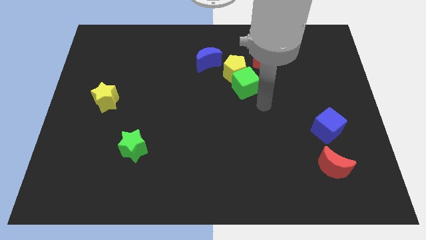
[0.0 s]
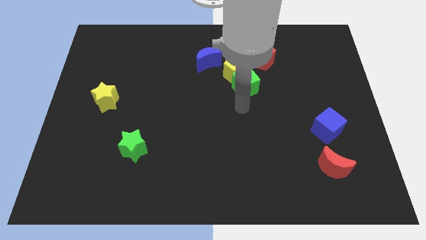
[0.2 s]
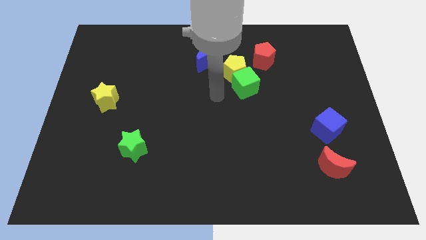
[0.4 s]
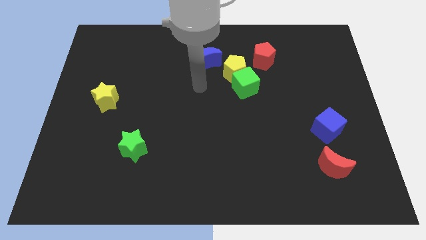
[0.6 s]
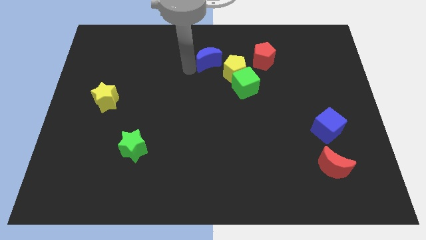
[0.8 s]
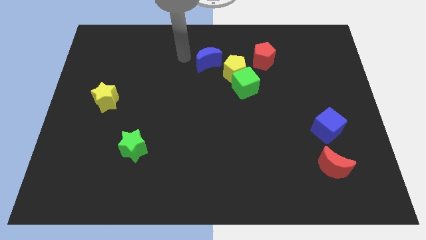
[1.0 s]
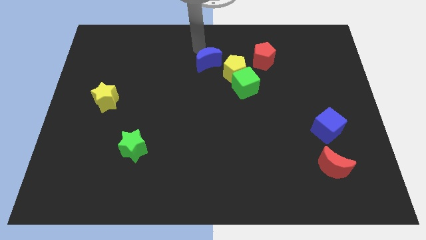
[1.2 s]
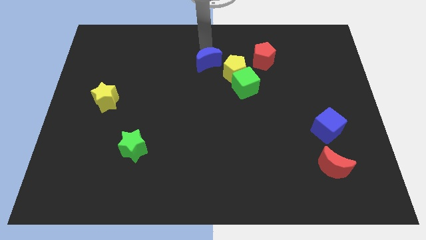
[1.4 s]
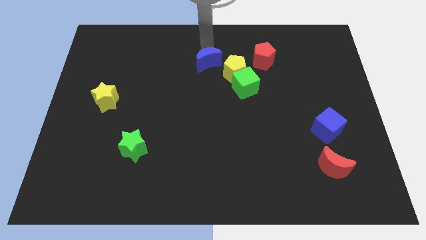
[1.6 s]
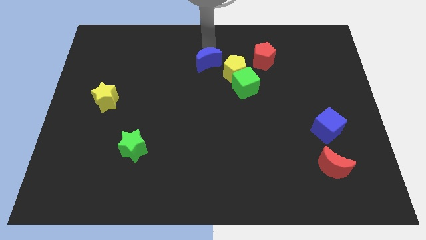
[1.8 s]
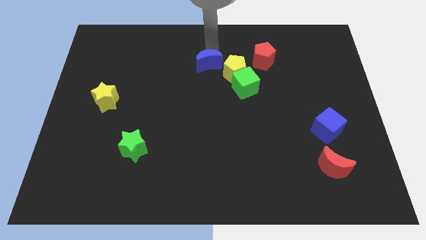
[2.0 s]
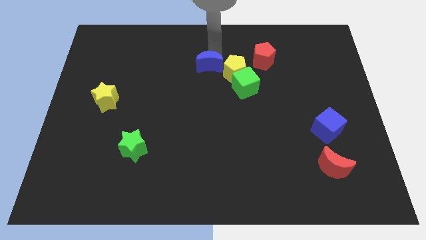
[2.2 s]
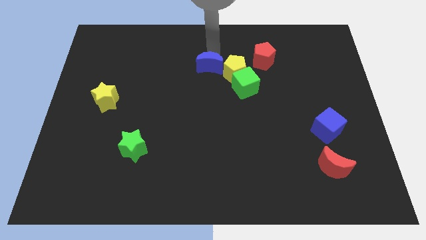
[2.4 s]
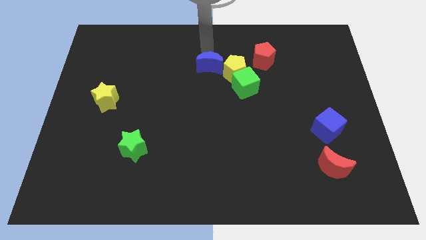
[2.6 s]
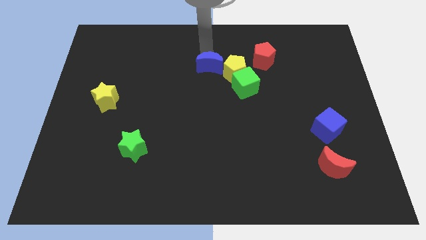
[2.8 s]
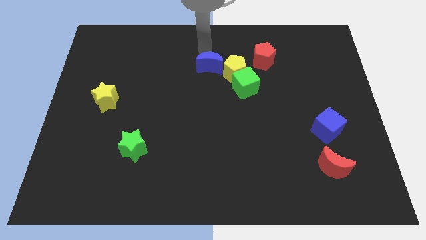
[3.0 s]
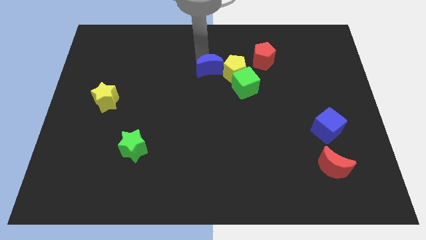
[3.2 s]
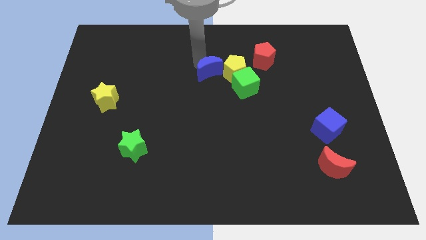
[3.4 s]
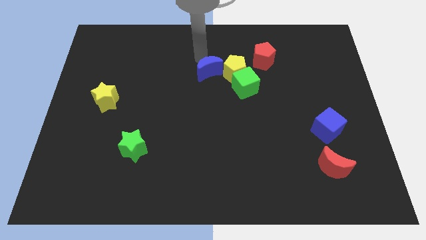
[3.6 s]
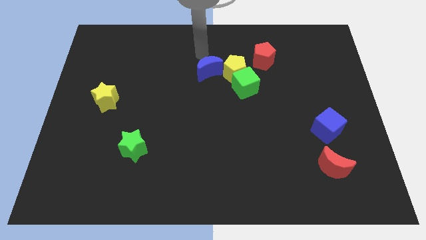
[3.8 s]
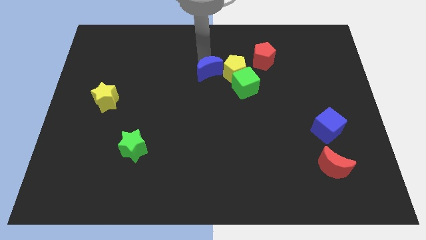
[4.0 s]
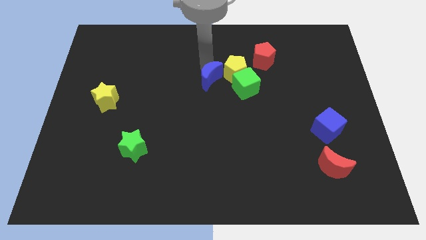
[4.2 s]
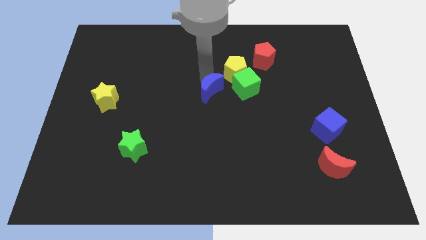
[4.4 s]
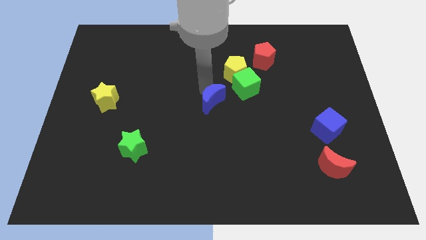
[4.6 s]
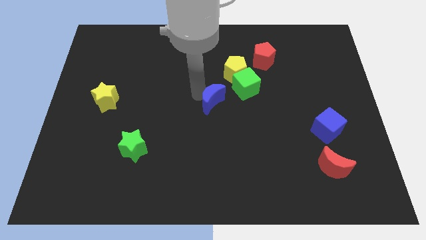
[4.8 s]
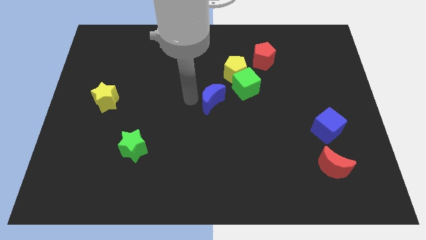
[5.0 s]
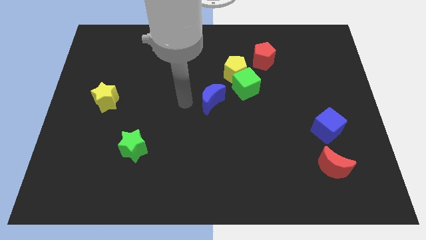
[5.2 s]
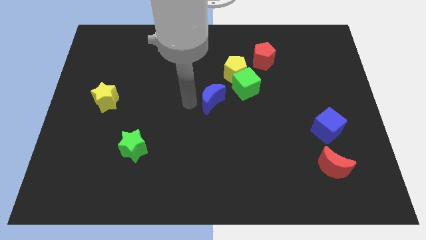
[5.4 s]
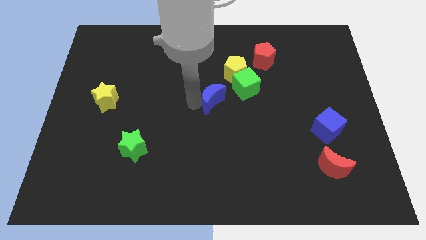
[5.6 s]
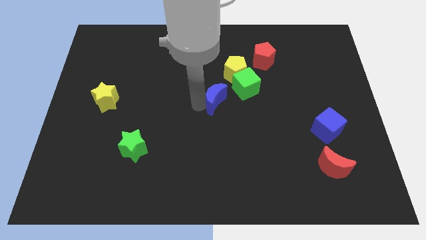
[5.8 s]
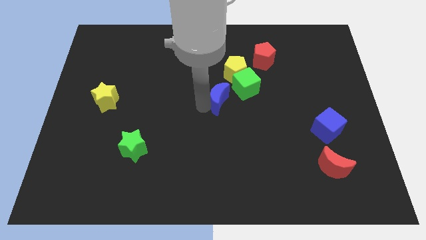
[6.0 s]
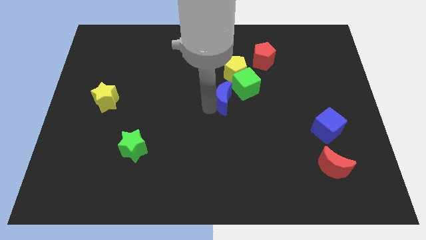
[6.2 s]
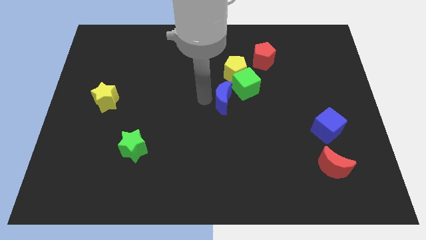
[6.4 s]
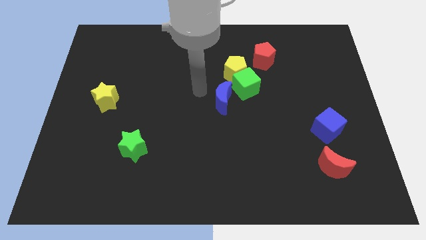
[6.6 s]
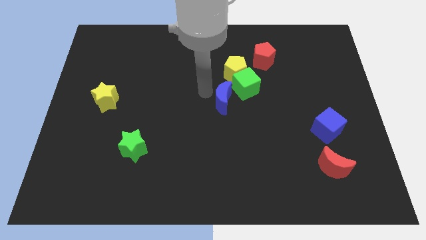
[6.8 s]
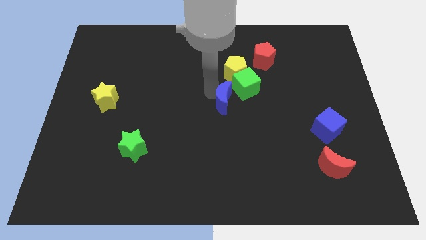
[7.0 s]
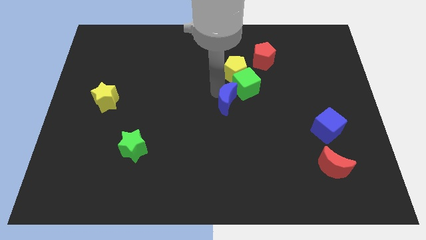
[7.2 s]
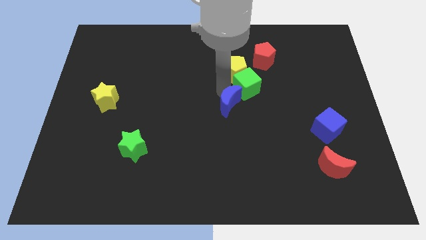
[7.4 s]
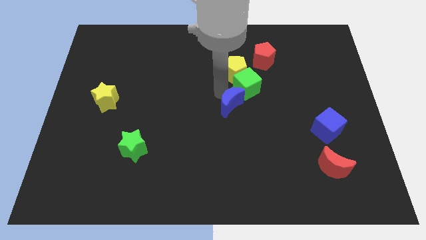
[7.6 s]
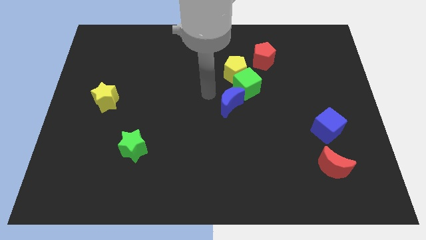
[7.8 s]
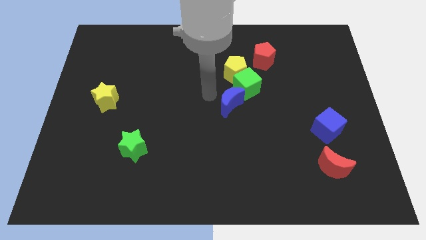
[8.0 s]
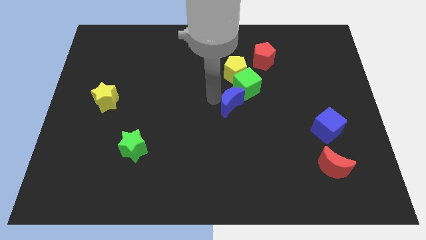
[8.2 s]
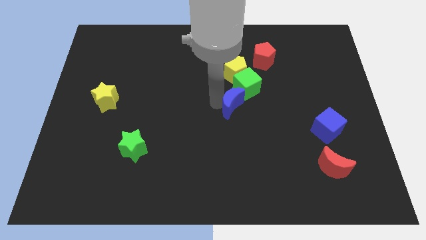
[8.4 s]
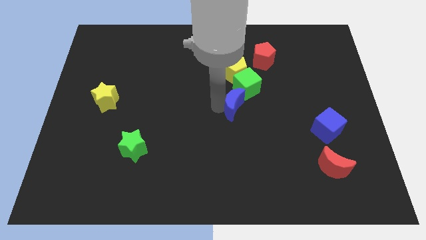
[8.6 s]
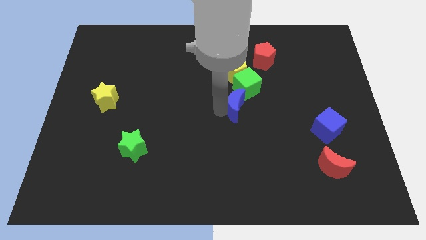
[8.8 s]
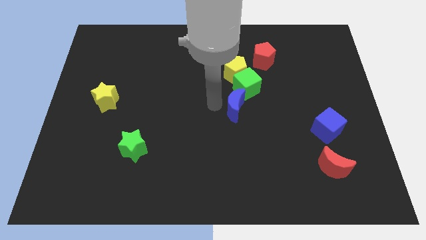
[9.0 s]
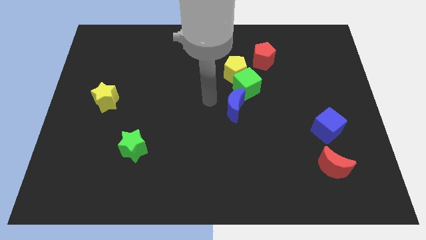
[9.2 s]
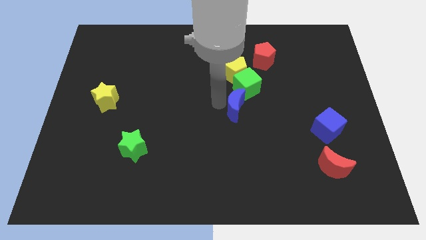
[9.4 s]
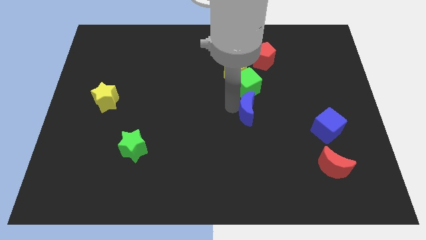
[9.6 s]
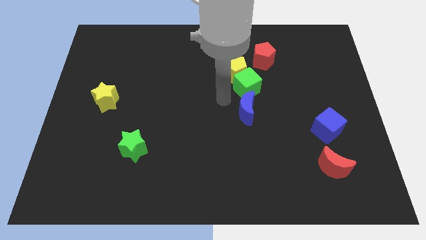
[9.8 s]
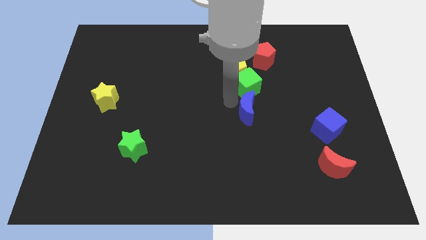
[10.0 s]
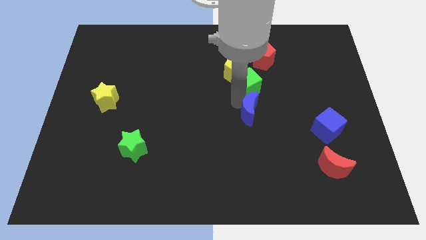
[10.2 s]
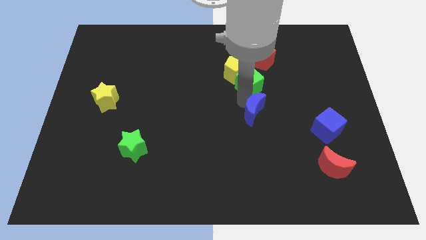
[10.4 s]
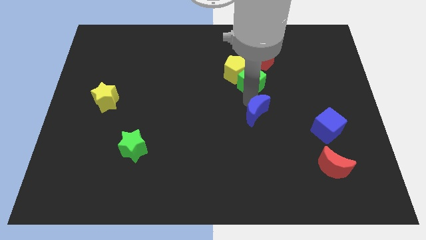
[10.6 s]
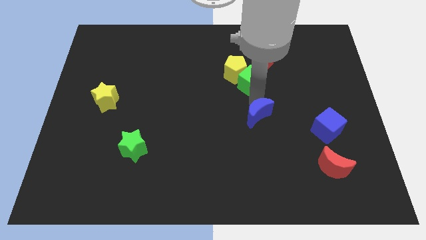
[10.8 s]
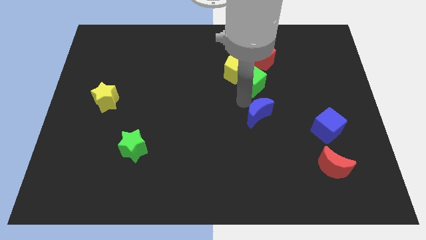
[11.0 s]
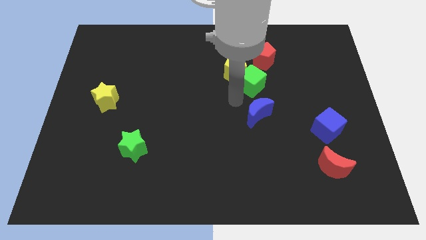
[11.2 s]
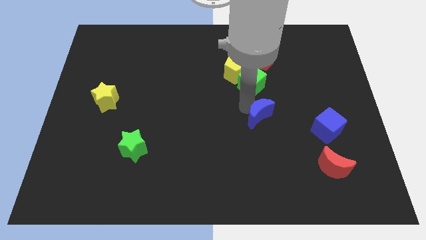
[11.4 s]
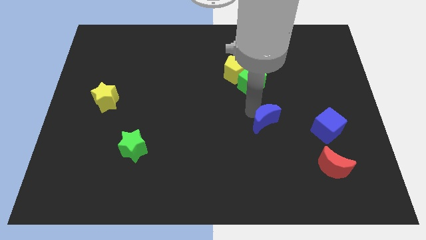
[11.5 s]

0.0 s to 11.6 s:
put the blue moon to the left side of the blue cube

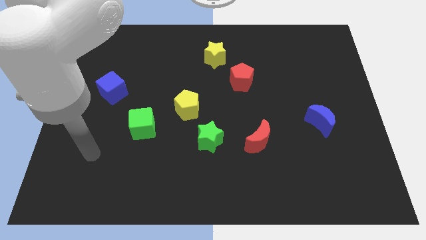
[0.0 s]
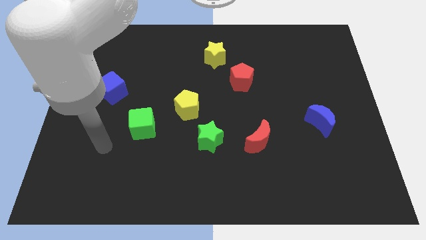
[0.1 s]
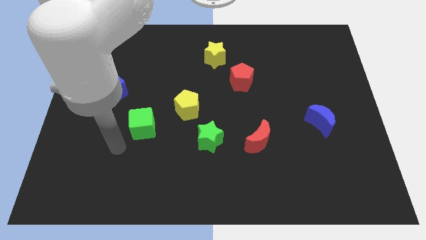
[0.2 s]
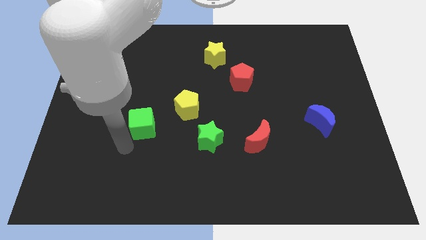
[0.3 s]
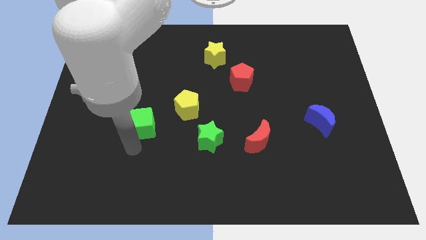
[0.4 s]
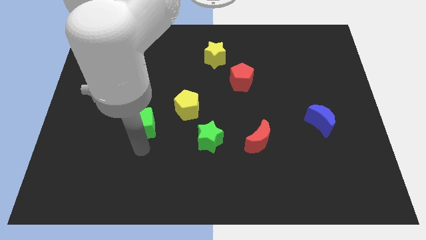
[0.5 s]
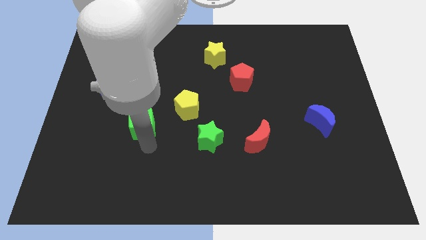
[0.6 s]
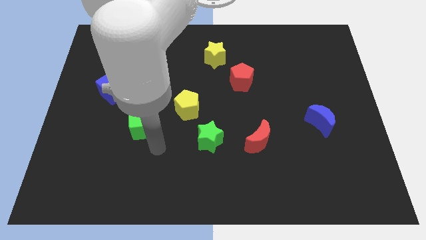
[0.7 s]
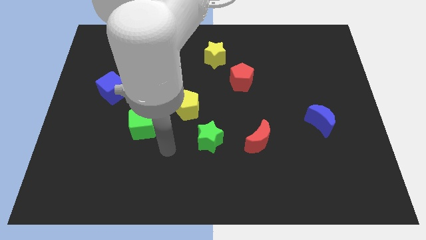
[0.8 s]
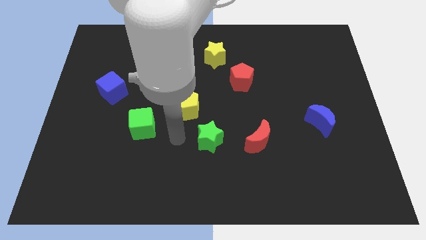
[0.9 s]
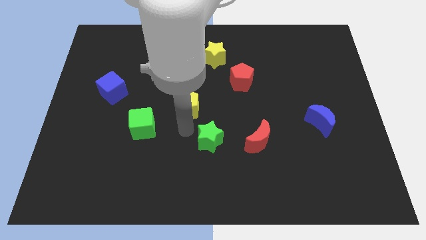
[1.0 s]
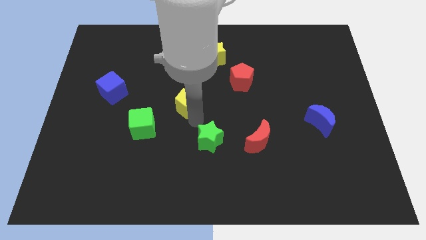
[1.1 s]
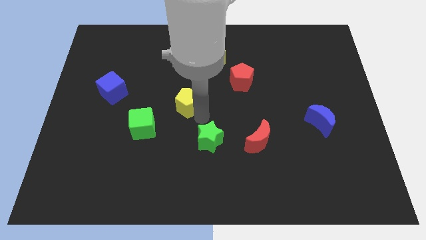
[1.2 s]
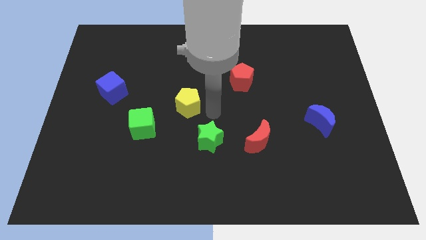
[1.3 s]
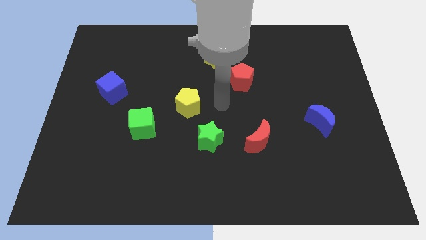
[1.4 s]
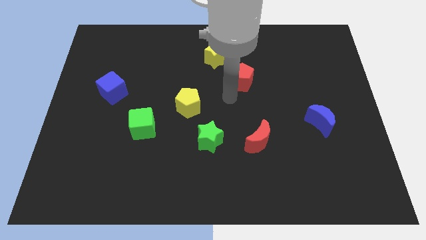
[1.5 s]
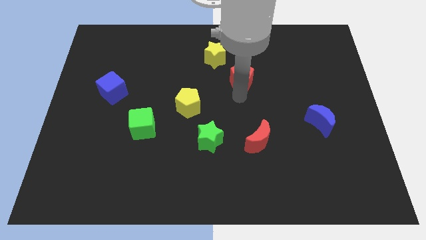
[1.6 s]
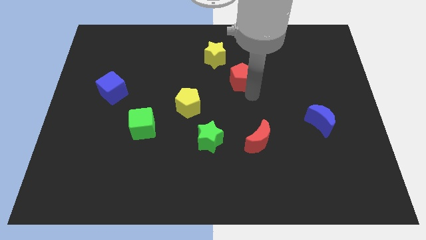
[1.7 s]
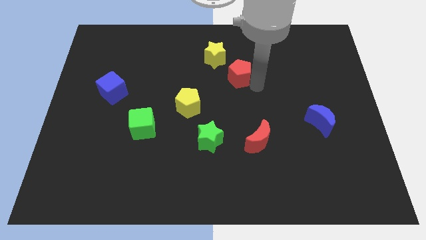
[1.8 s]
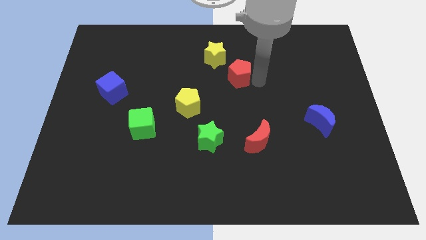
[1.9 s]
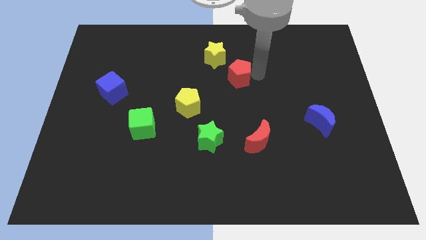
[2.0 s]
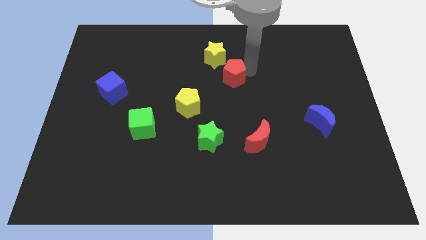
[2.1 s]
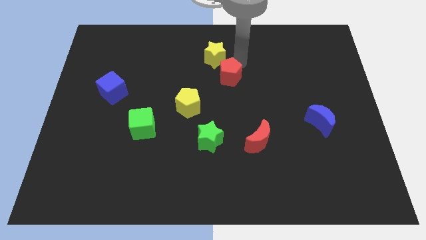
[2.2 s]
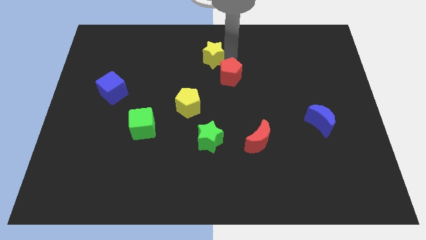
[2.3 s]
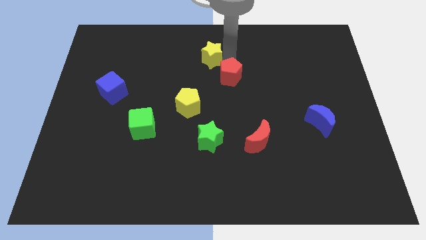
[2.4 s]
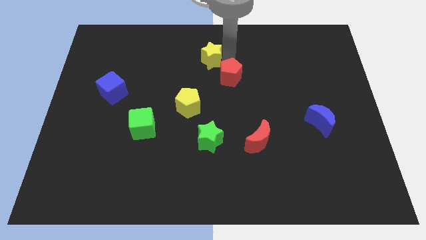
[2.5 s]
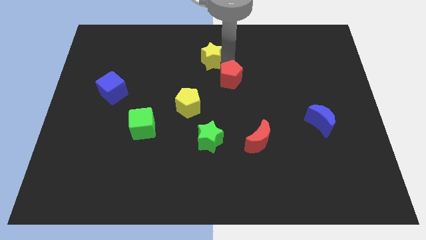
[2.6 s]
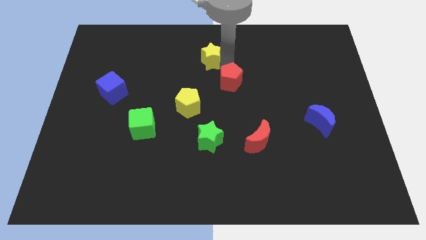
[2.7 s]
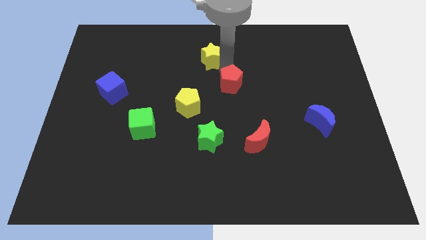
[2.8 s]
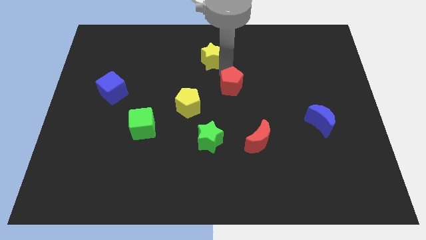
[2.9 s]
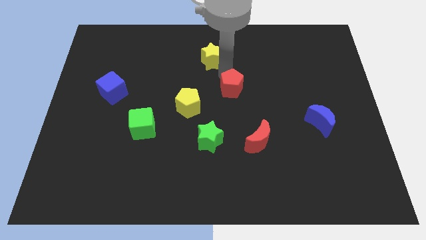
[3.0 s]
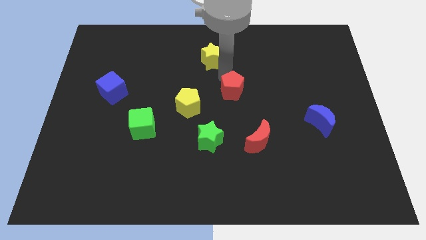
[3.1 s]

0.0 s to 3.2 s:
move the red pentagon right of the yellow pentagon
